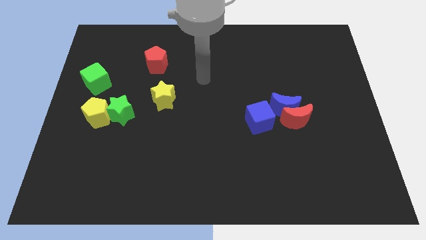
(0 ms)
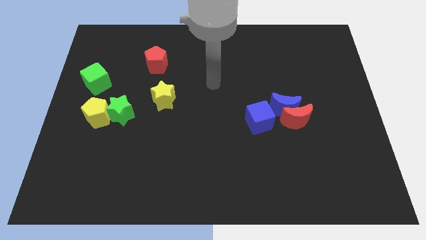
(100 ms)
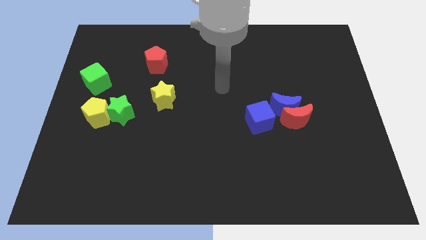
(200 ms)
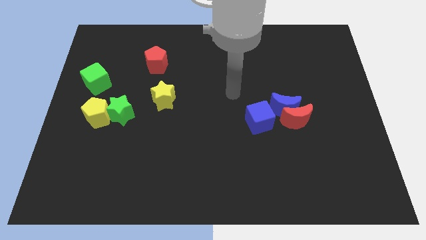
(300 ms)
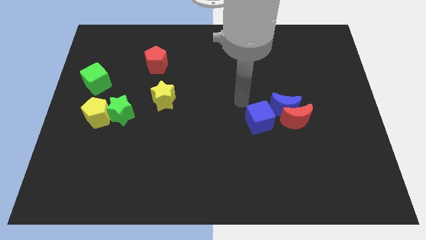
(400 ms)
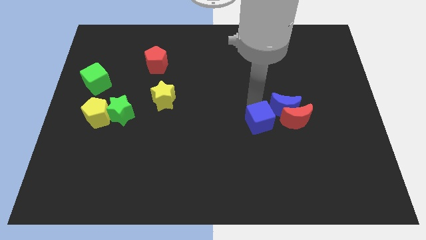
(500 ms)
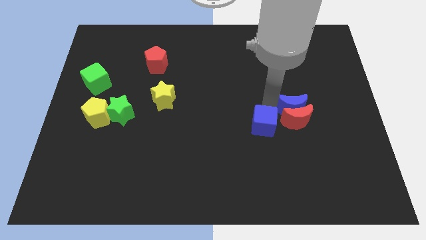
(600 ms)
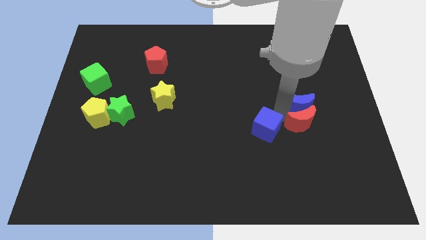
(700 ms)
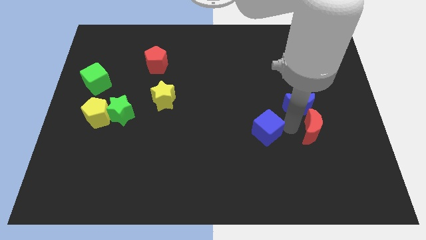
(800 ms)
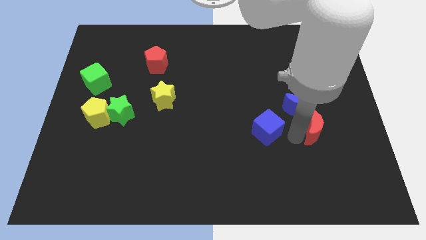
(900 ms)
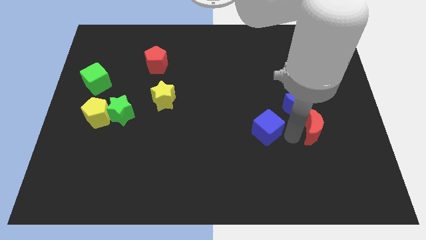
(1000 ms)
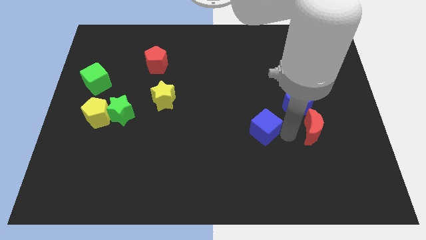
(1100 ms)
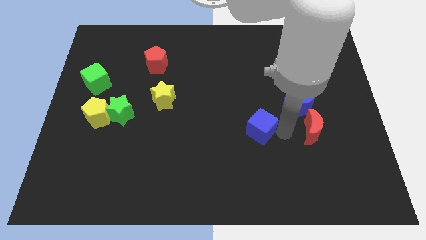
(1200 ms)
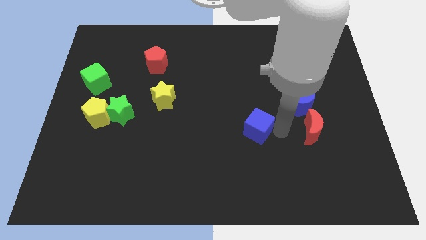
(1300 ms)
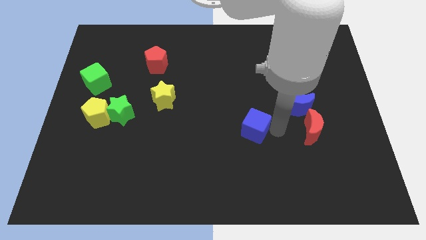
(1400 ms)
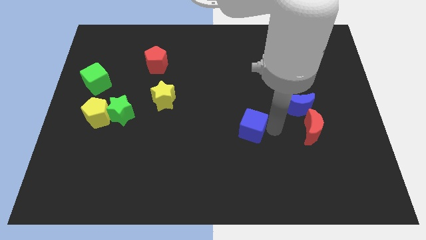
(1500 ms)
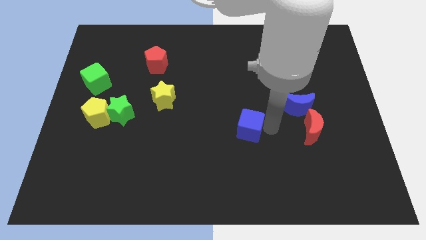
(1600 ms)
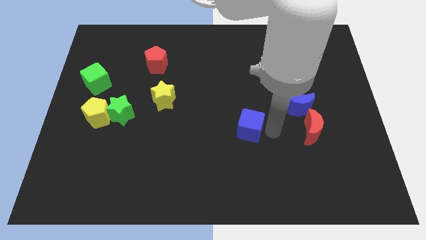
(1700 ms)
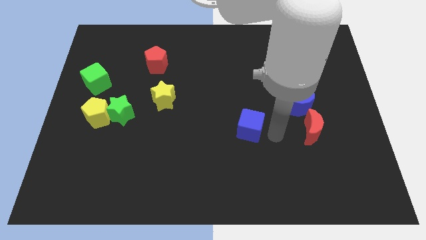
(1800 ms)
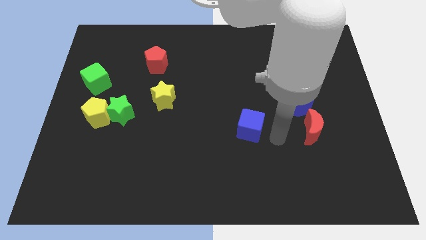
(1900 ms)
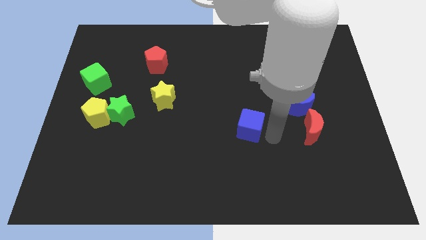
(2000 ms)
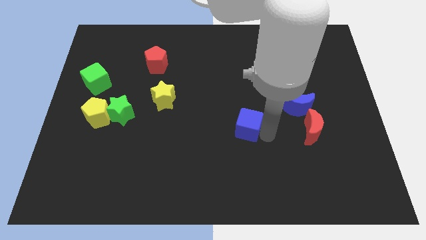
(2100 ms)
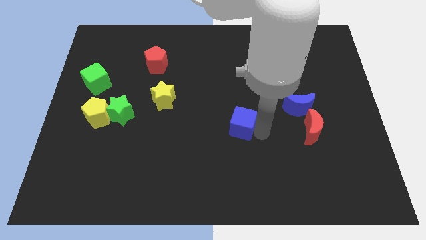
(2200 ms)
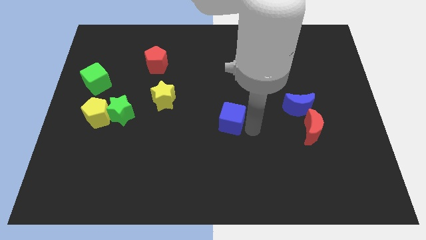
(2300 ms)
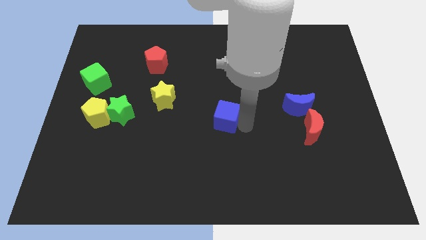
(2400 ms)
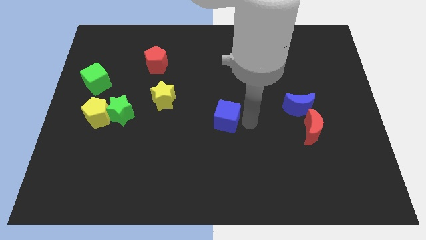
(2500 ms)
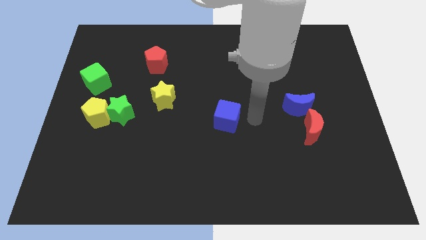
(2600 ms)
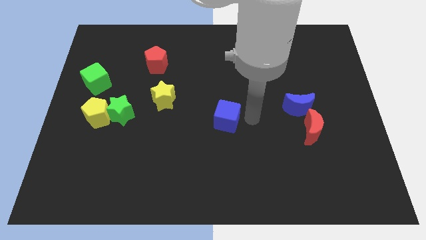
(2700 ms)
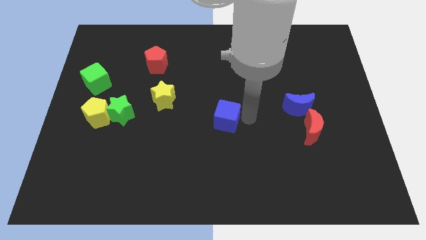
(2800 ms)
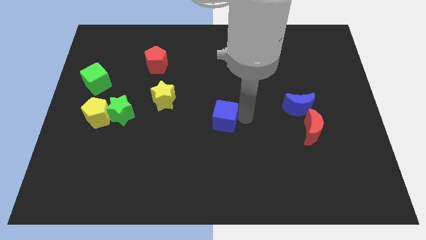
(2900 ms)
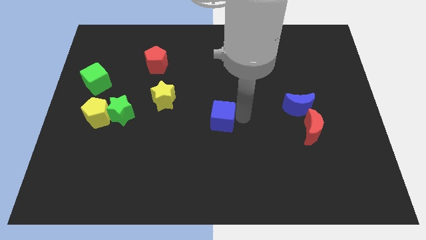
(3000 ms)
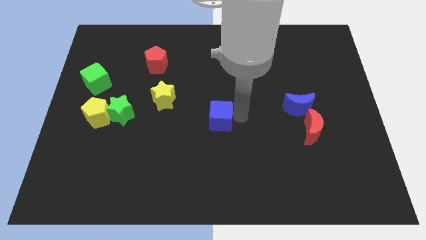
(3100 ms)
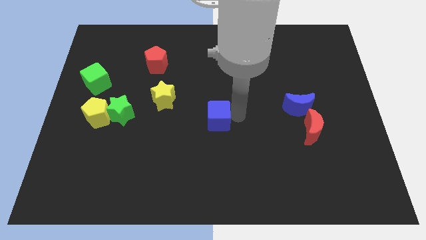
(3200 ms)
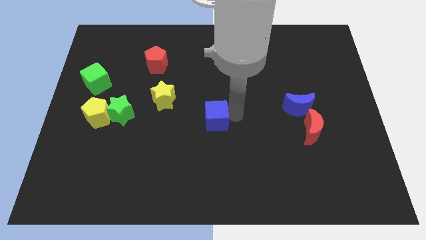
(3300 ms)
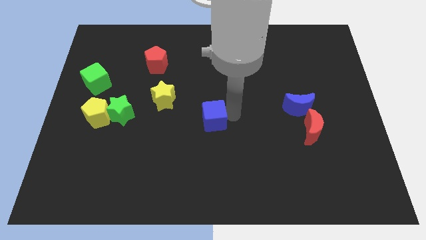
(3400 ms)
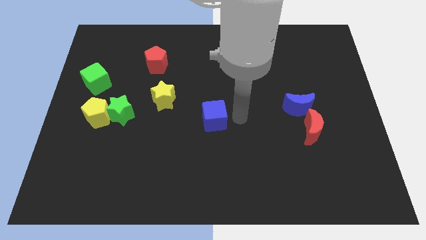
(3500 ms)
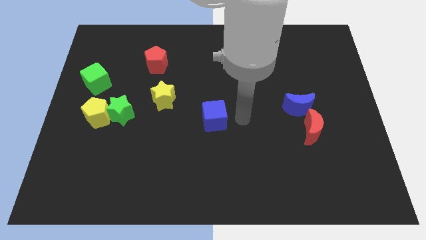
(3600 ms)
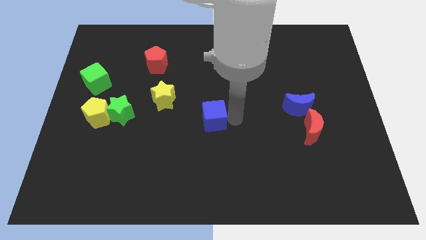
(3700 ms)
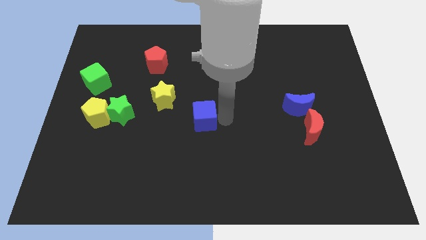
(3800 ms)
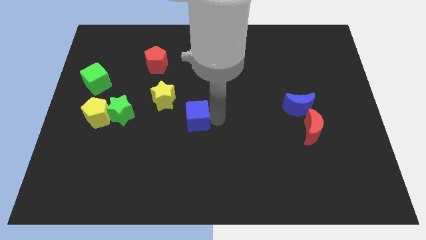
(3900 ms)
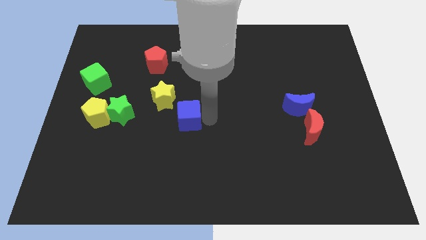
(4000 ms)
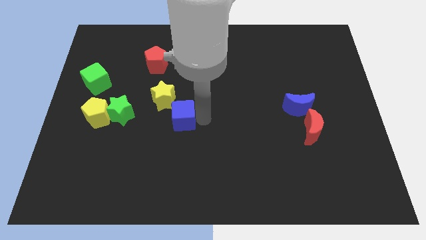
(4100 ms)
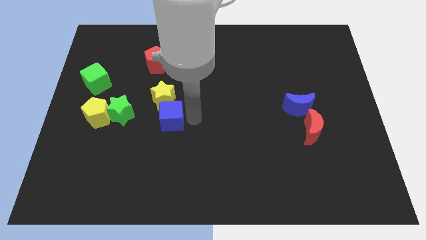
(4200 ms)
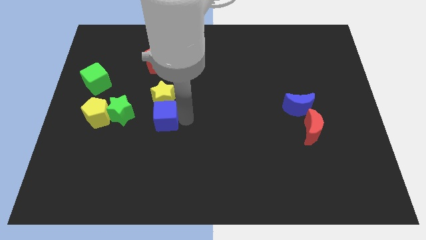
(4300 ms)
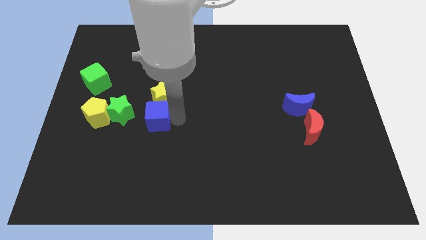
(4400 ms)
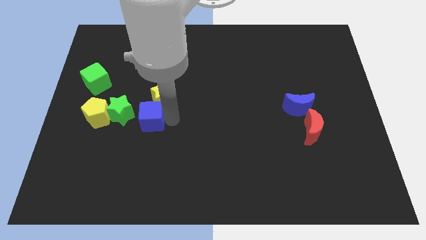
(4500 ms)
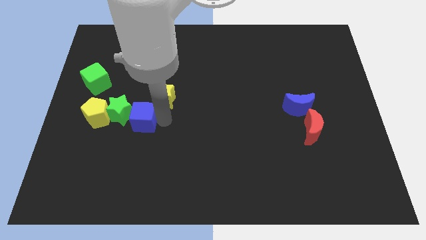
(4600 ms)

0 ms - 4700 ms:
push the blue cube next to the green star

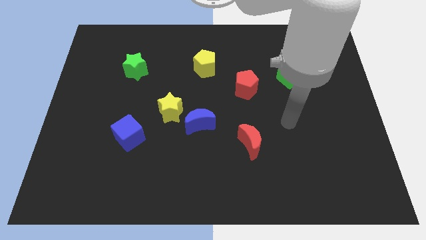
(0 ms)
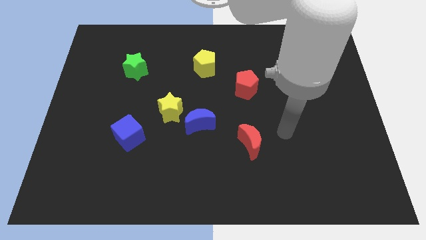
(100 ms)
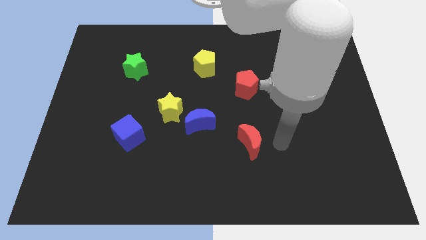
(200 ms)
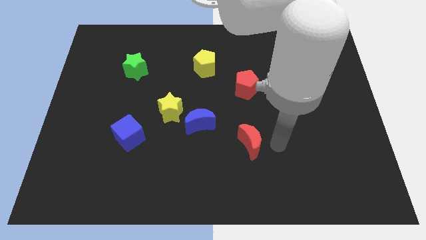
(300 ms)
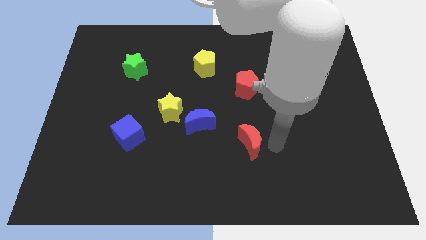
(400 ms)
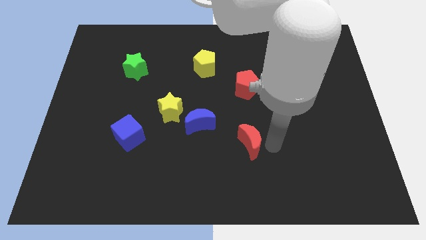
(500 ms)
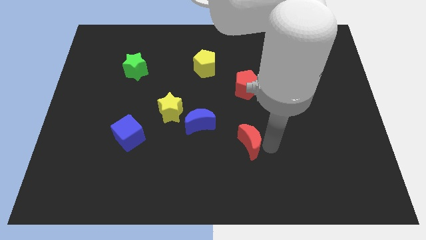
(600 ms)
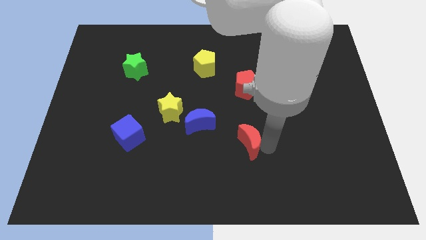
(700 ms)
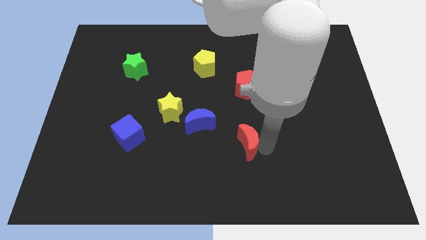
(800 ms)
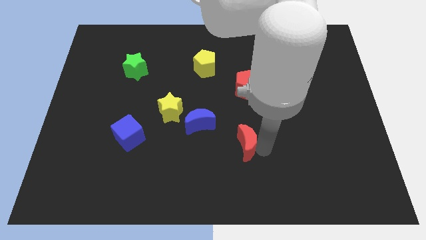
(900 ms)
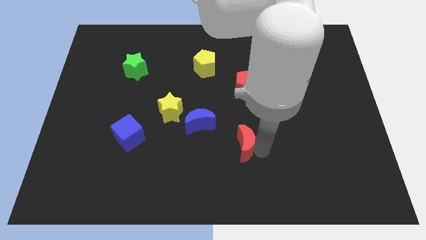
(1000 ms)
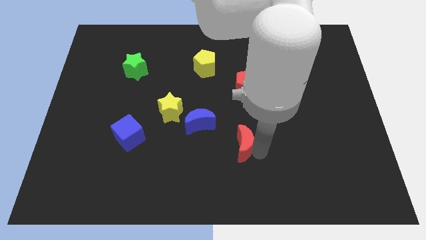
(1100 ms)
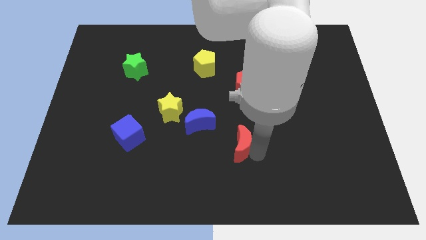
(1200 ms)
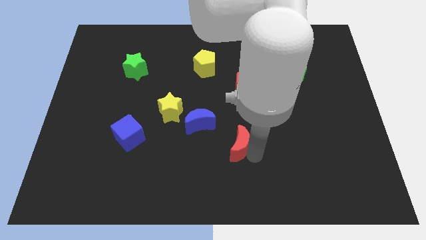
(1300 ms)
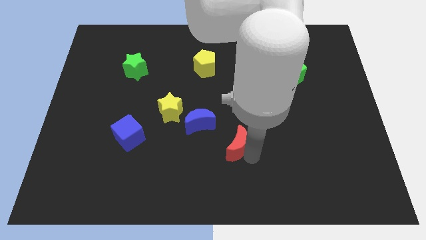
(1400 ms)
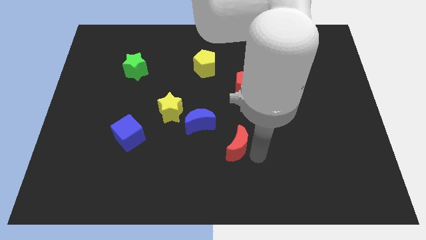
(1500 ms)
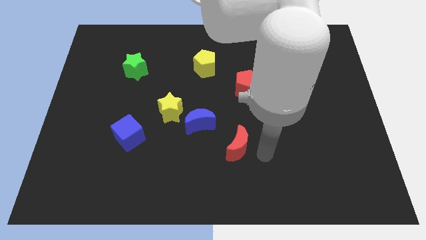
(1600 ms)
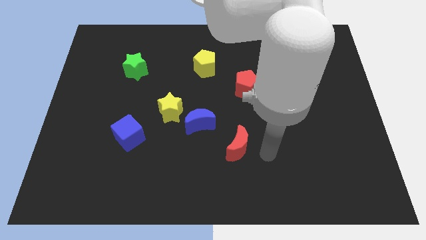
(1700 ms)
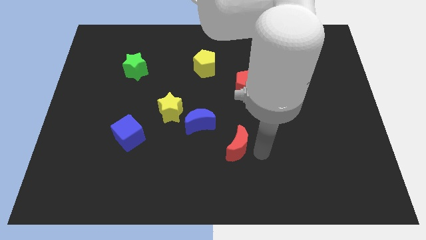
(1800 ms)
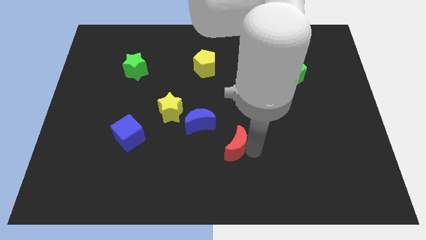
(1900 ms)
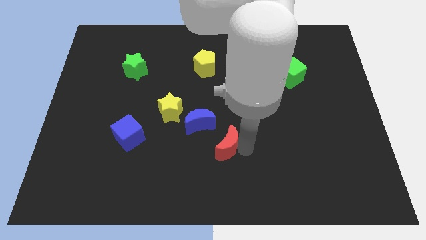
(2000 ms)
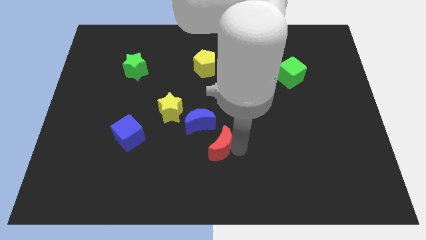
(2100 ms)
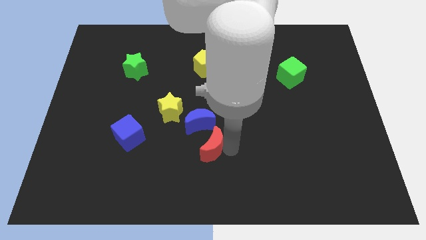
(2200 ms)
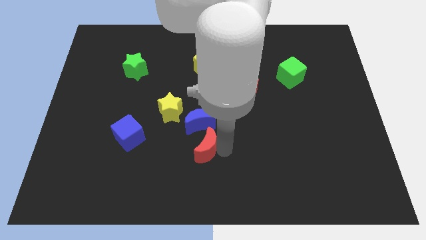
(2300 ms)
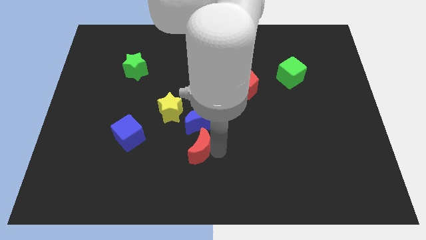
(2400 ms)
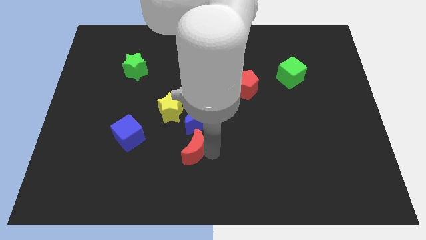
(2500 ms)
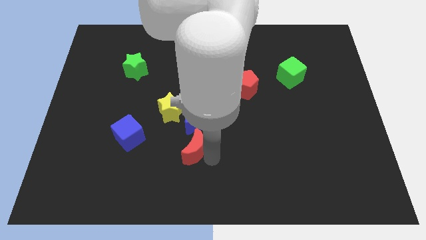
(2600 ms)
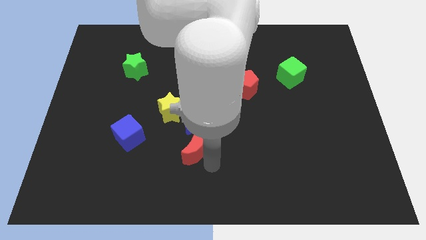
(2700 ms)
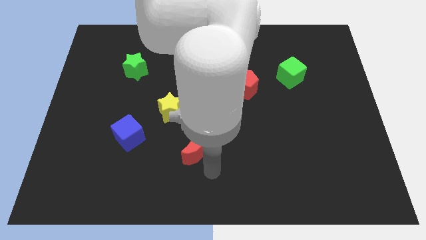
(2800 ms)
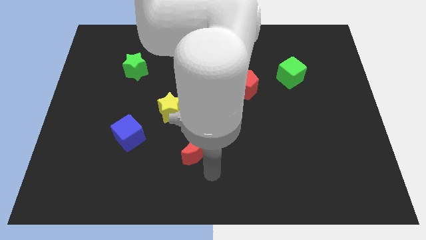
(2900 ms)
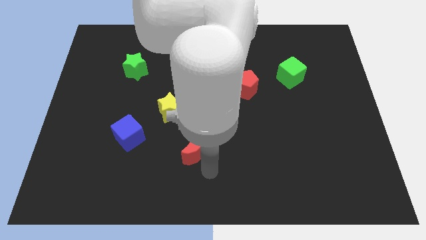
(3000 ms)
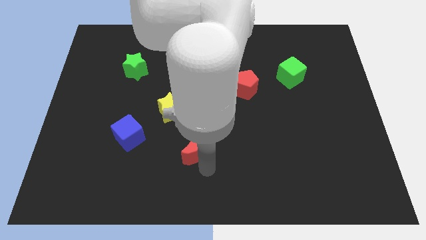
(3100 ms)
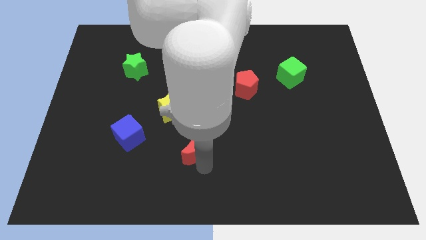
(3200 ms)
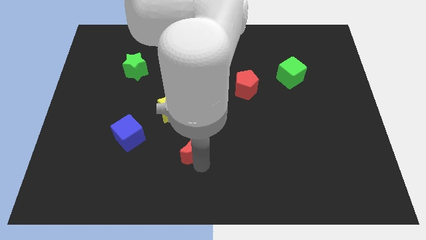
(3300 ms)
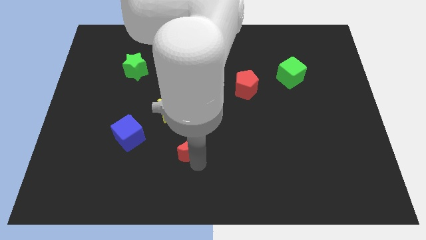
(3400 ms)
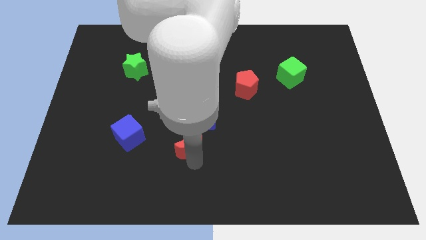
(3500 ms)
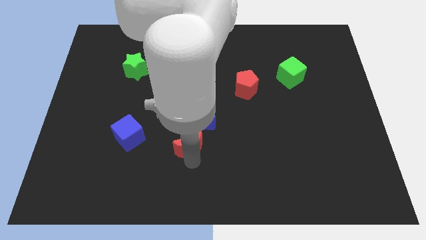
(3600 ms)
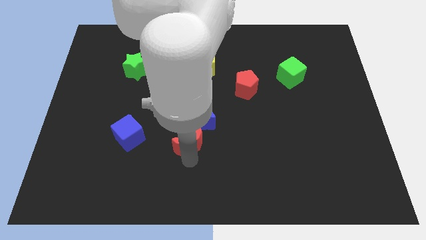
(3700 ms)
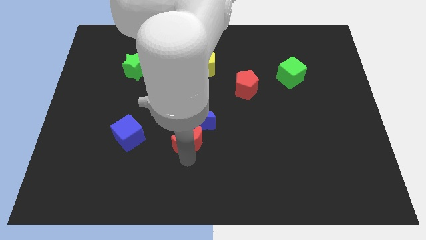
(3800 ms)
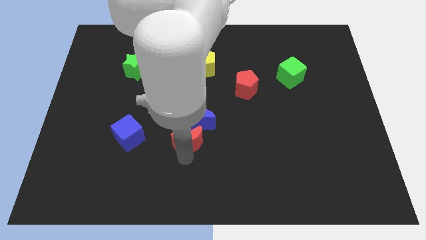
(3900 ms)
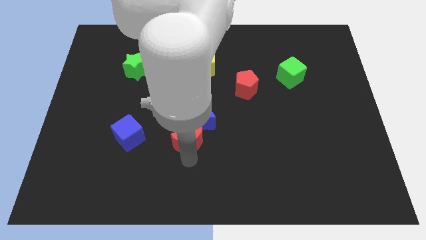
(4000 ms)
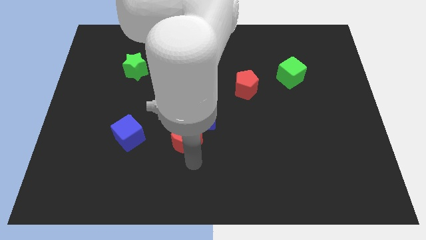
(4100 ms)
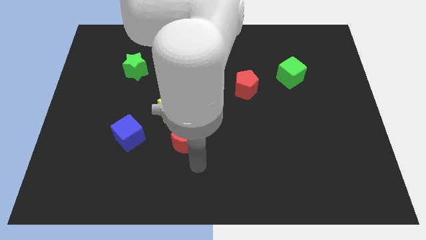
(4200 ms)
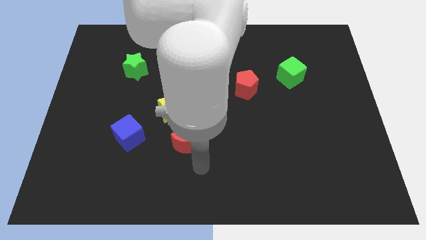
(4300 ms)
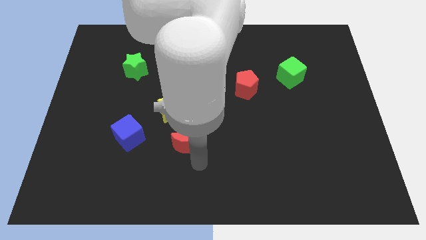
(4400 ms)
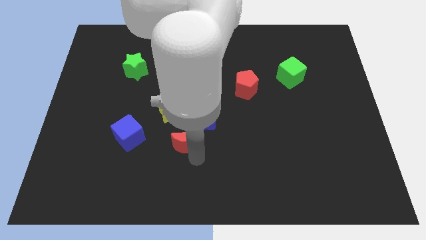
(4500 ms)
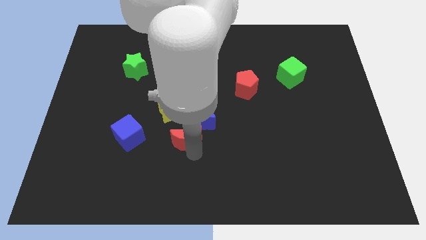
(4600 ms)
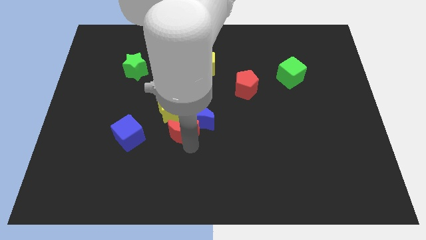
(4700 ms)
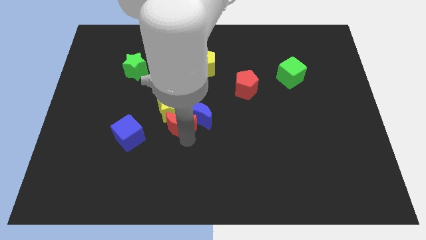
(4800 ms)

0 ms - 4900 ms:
slide the red moon close to the yellow star
